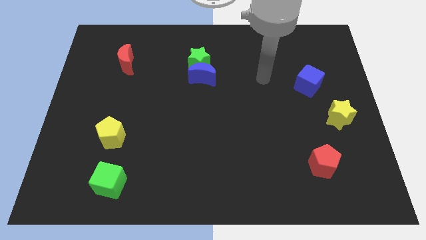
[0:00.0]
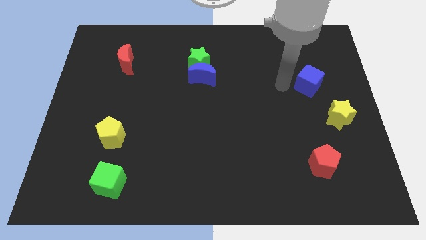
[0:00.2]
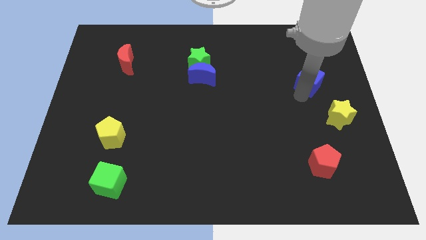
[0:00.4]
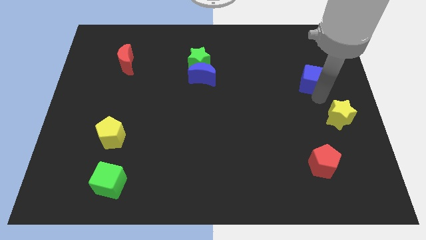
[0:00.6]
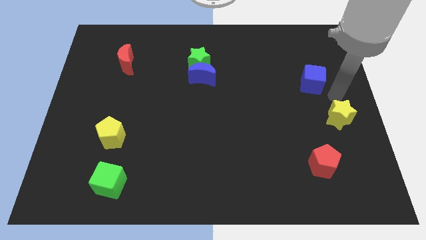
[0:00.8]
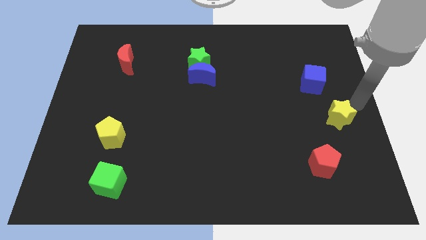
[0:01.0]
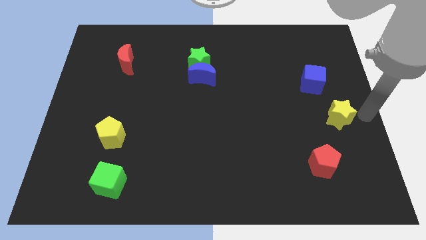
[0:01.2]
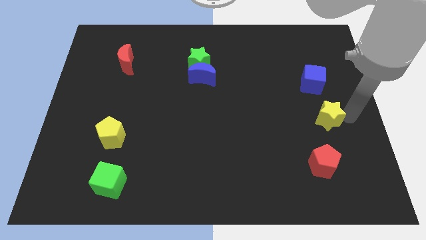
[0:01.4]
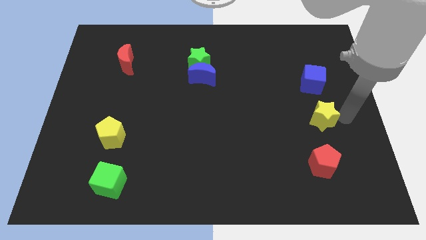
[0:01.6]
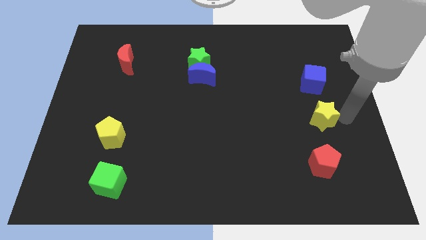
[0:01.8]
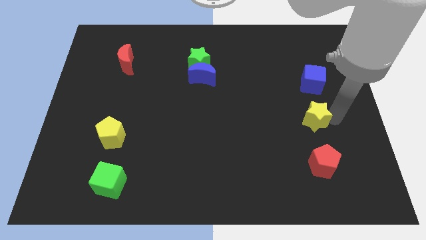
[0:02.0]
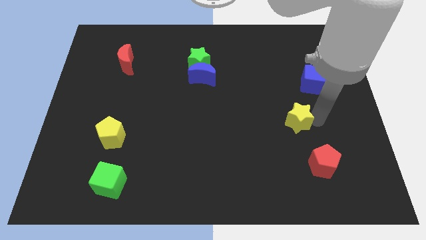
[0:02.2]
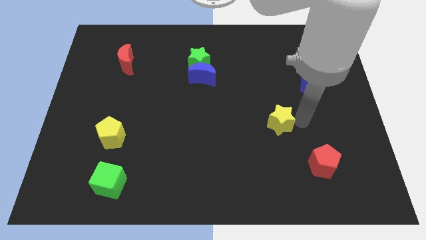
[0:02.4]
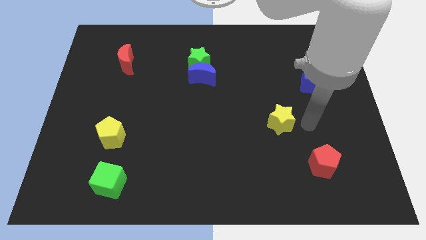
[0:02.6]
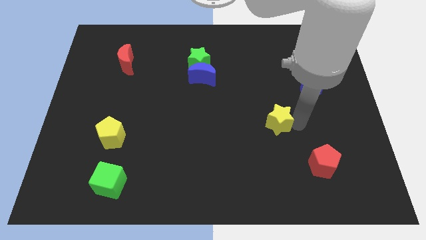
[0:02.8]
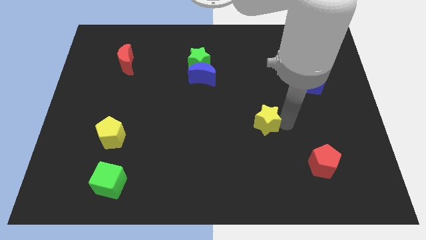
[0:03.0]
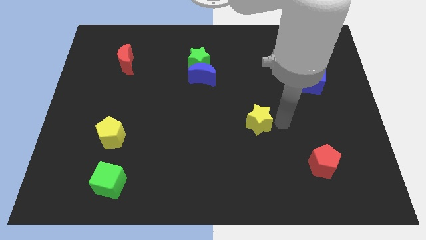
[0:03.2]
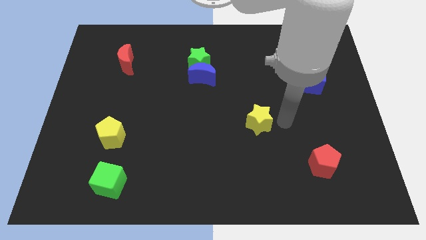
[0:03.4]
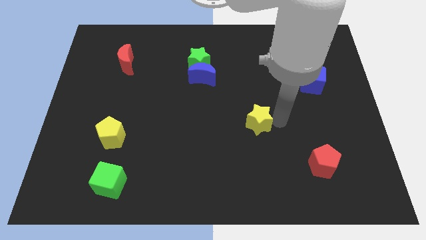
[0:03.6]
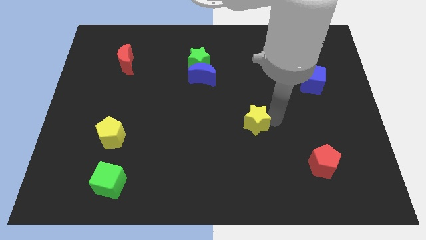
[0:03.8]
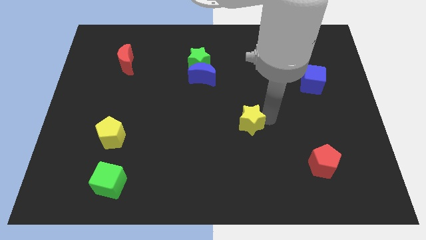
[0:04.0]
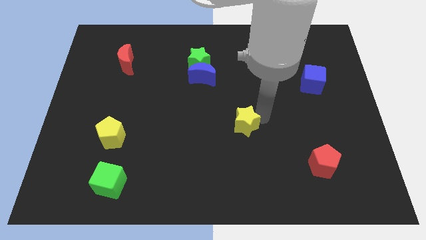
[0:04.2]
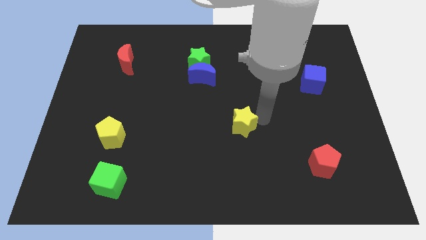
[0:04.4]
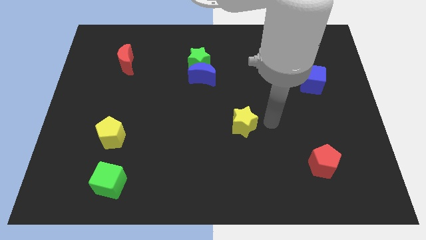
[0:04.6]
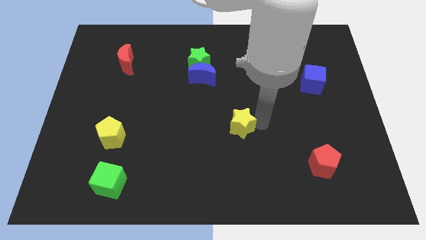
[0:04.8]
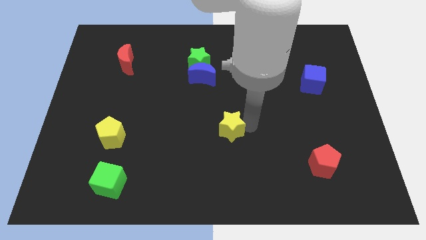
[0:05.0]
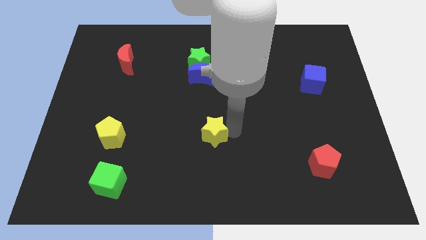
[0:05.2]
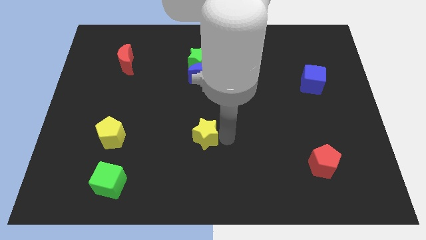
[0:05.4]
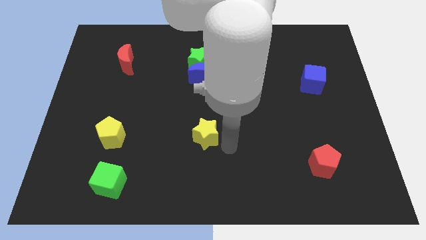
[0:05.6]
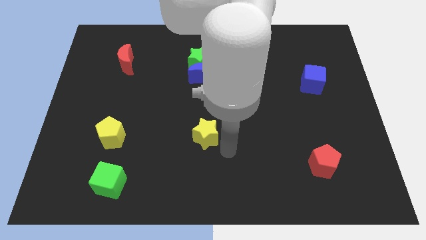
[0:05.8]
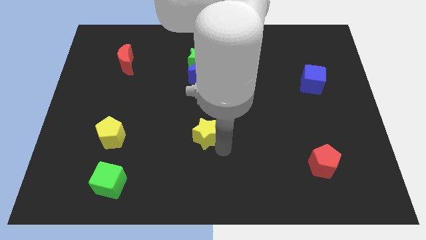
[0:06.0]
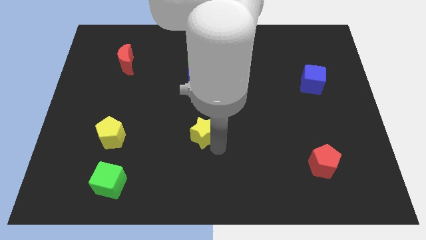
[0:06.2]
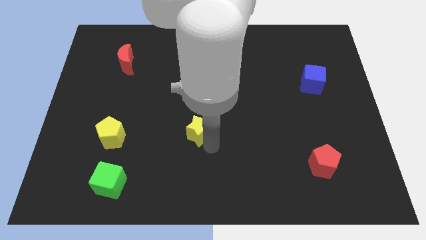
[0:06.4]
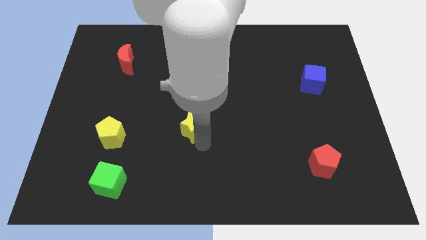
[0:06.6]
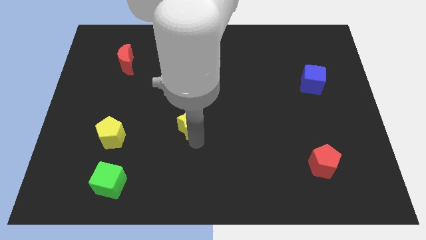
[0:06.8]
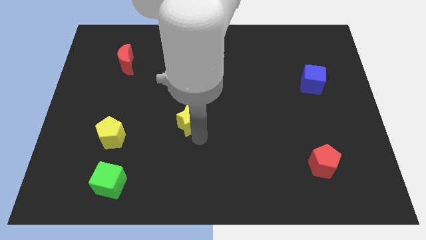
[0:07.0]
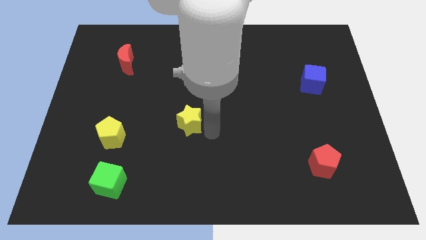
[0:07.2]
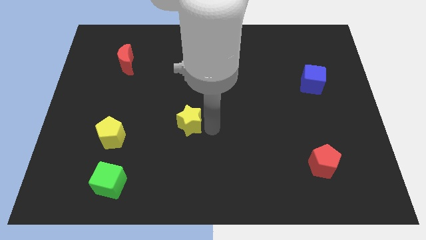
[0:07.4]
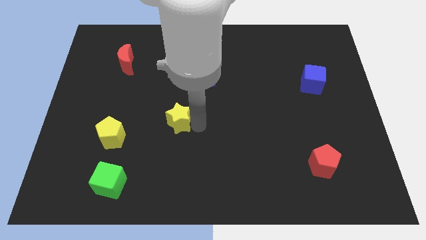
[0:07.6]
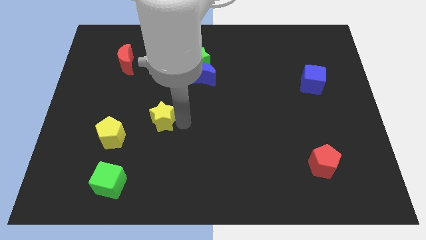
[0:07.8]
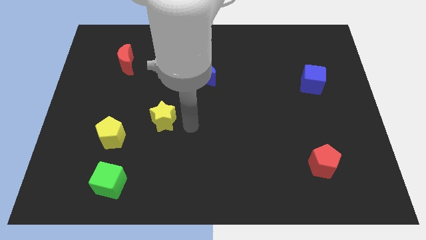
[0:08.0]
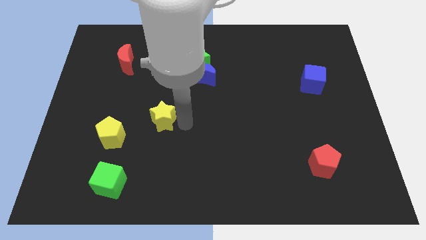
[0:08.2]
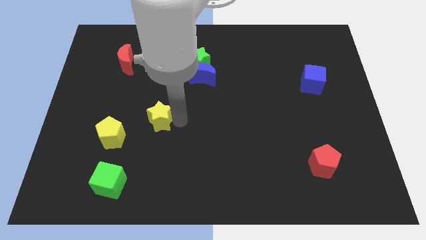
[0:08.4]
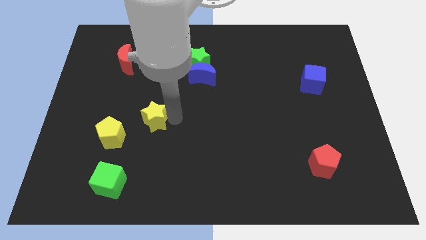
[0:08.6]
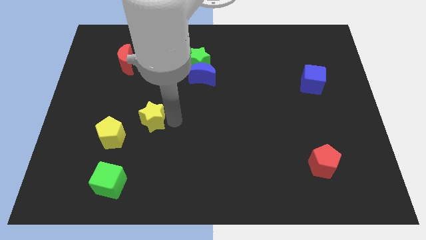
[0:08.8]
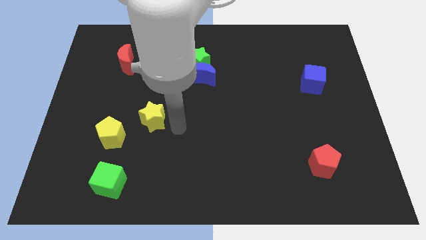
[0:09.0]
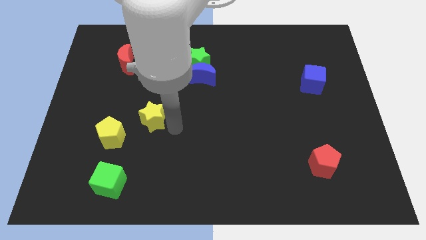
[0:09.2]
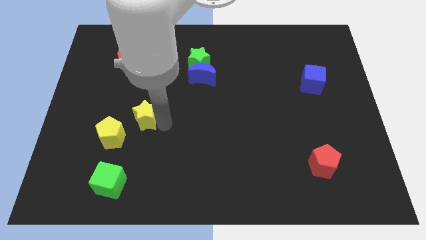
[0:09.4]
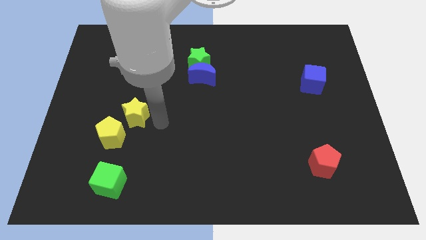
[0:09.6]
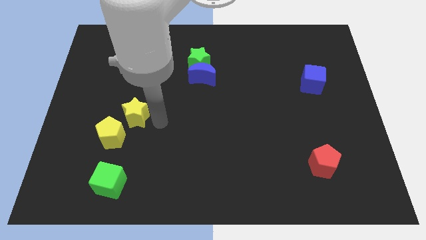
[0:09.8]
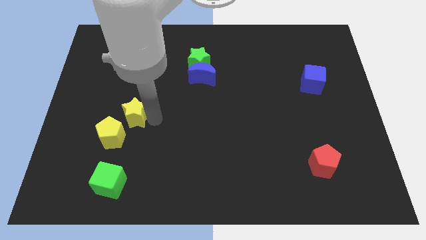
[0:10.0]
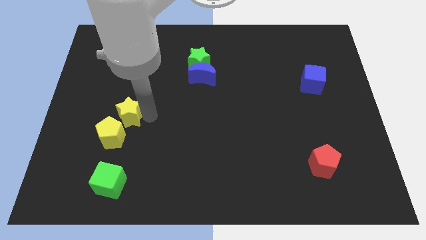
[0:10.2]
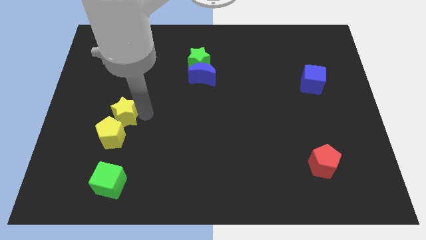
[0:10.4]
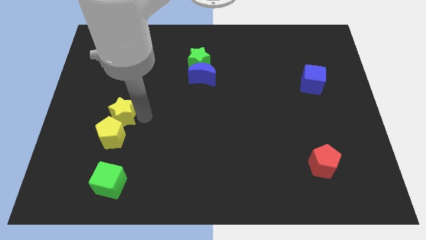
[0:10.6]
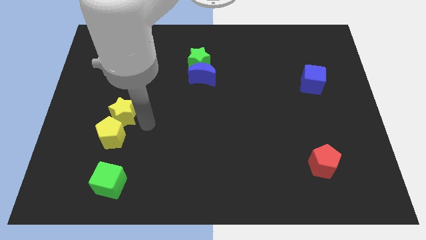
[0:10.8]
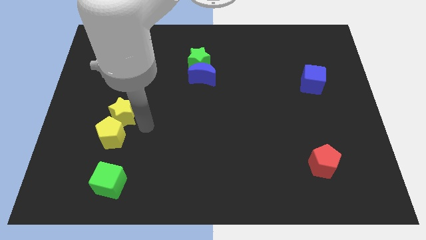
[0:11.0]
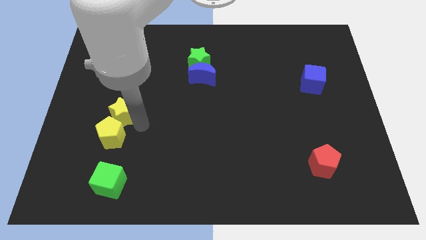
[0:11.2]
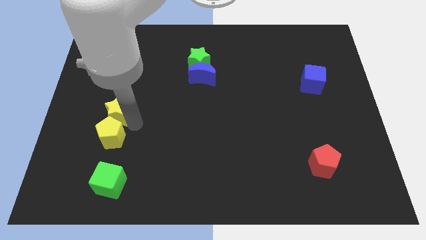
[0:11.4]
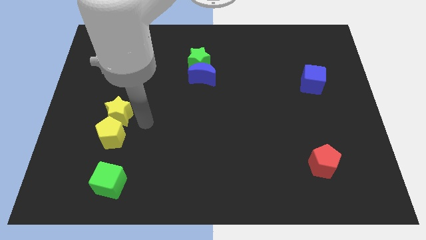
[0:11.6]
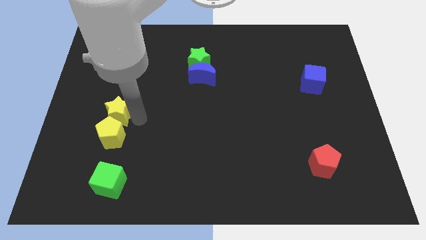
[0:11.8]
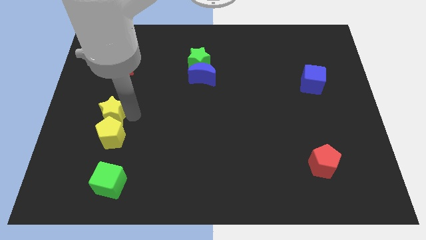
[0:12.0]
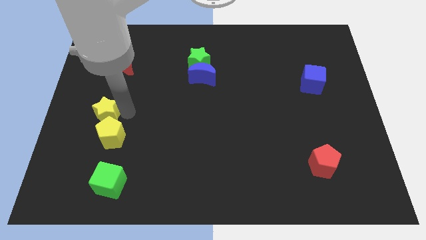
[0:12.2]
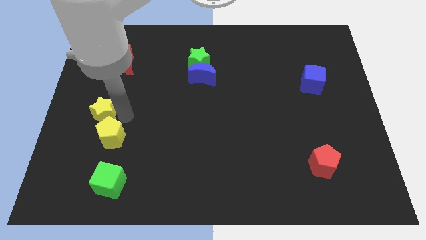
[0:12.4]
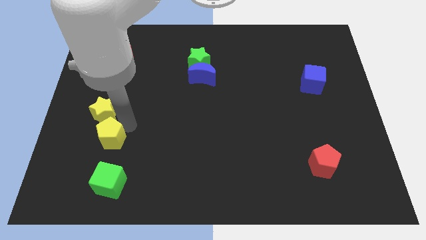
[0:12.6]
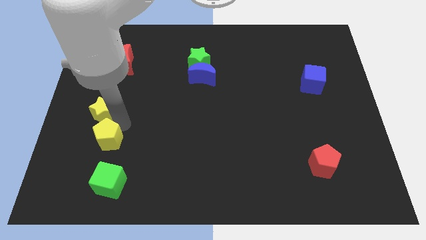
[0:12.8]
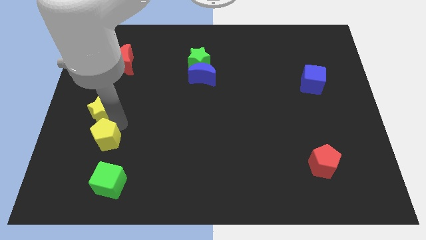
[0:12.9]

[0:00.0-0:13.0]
push the yellow star to the left side of the board

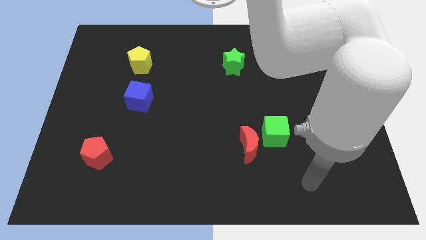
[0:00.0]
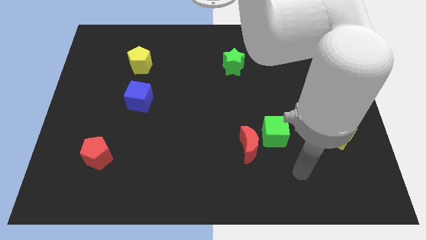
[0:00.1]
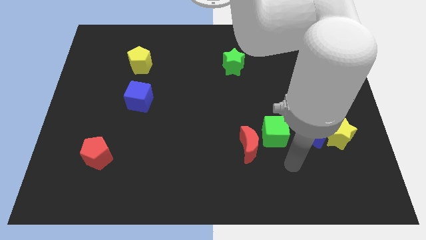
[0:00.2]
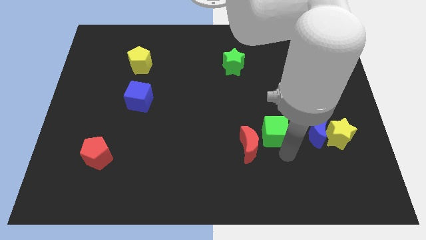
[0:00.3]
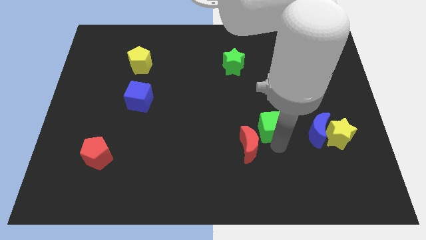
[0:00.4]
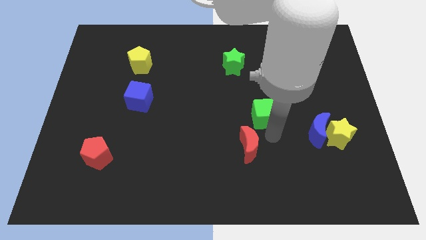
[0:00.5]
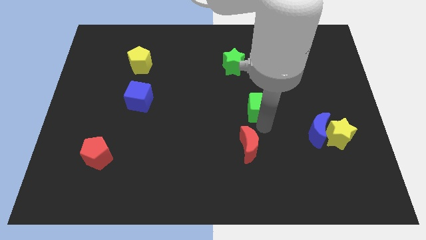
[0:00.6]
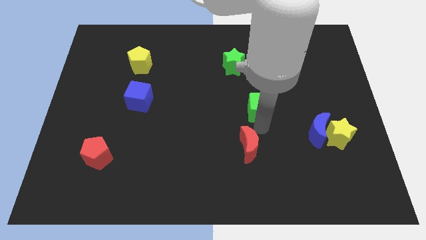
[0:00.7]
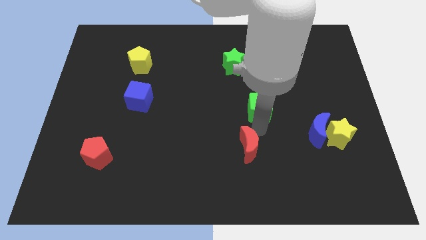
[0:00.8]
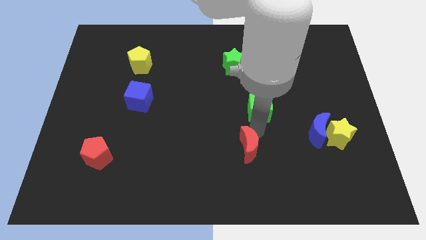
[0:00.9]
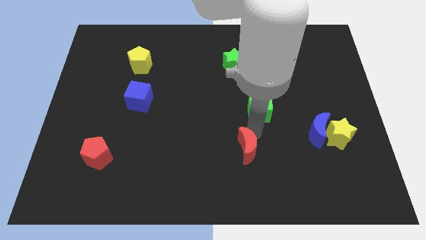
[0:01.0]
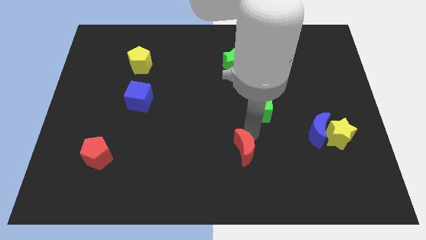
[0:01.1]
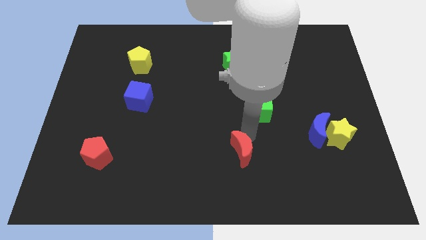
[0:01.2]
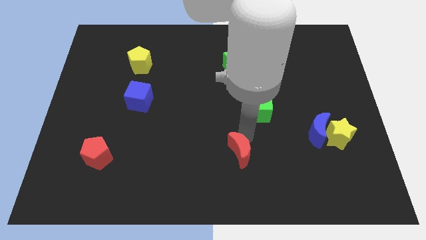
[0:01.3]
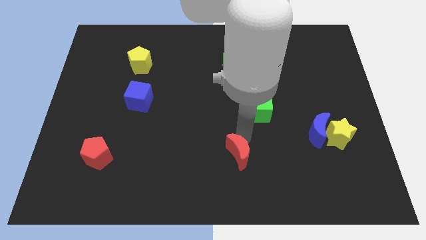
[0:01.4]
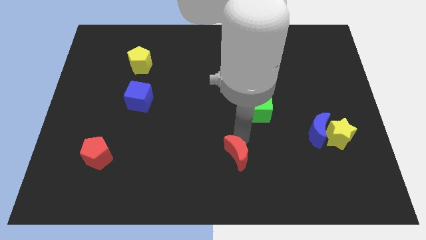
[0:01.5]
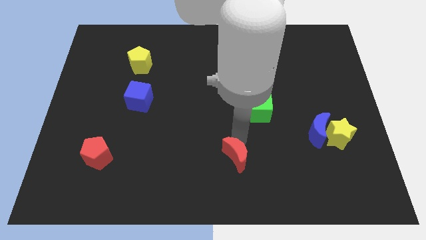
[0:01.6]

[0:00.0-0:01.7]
move the red moon to the bottom
